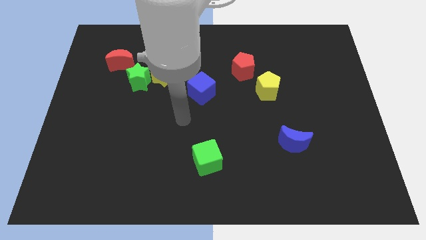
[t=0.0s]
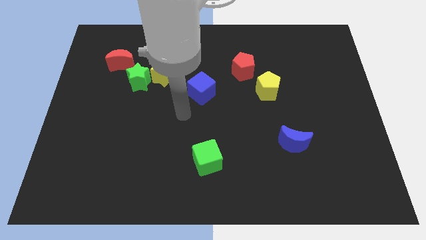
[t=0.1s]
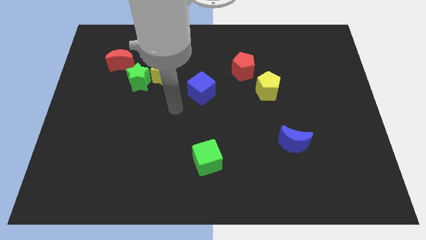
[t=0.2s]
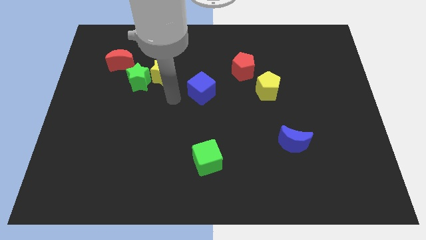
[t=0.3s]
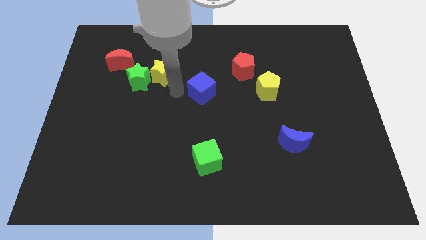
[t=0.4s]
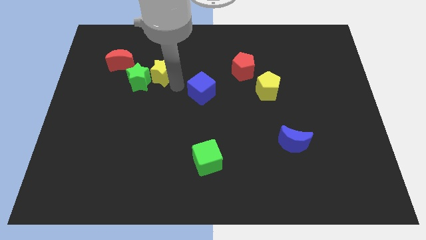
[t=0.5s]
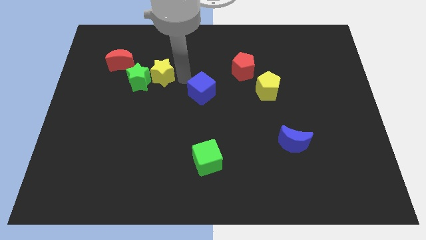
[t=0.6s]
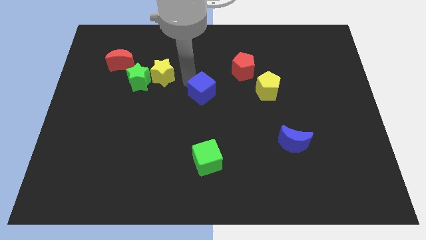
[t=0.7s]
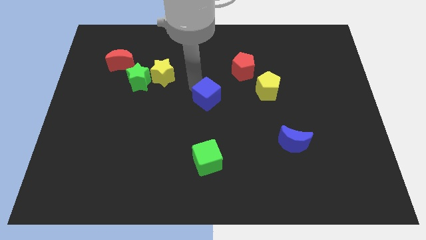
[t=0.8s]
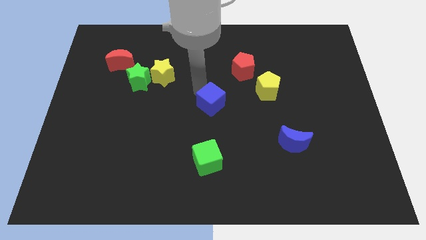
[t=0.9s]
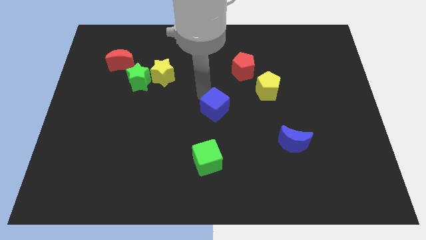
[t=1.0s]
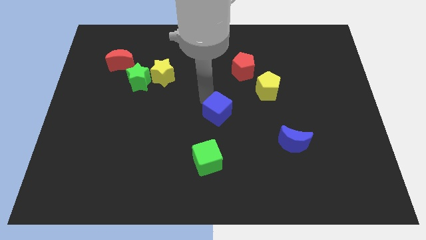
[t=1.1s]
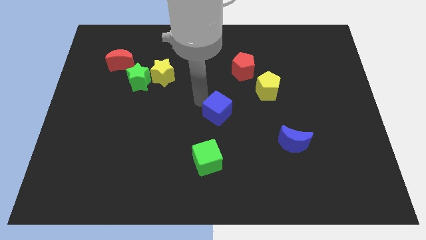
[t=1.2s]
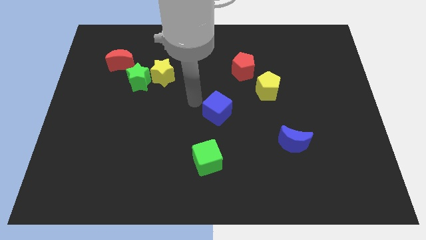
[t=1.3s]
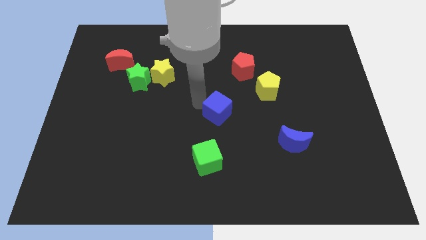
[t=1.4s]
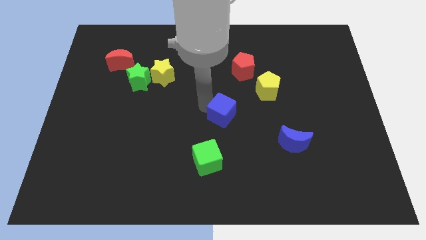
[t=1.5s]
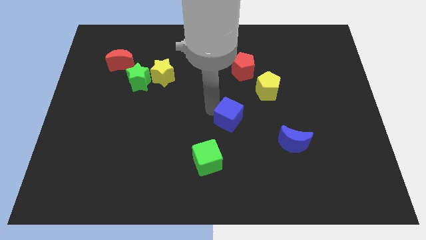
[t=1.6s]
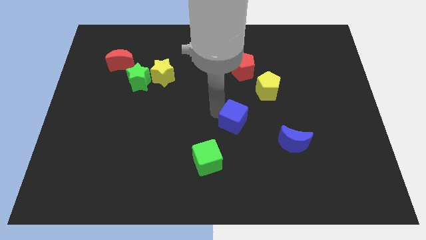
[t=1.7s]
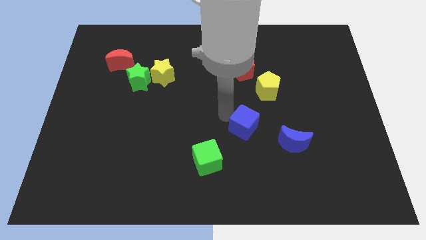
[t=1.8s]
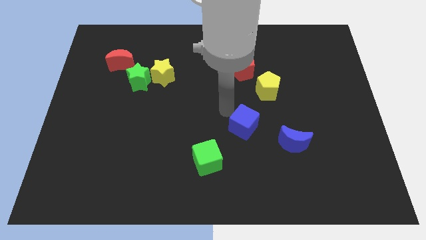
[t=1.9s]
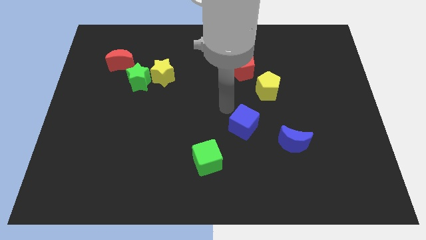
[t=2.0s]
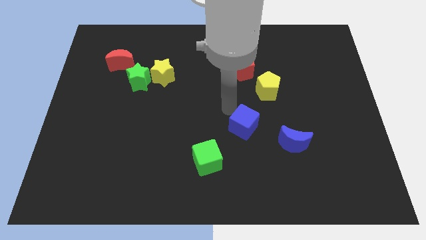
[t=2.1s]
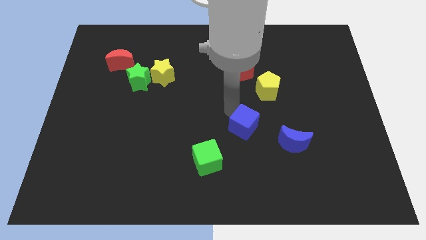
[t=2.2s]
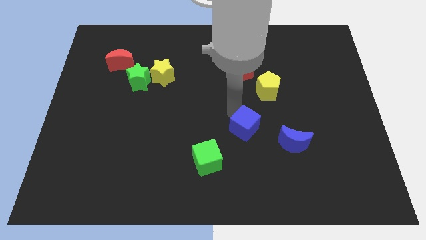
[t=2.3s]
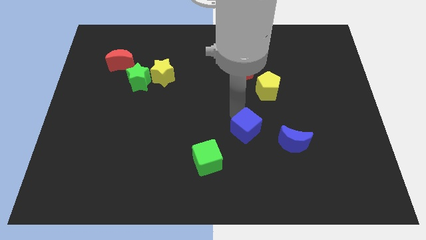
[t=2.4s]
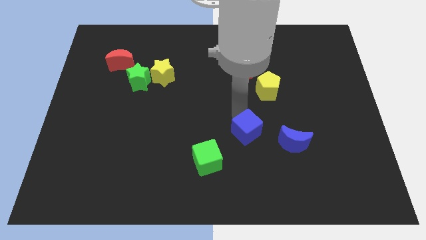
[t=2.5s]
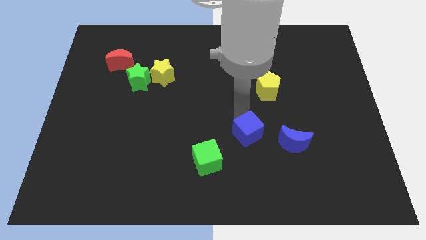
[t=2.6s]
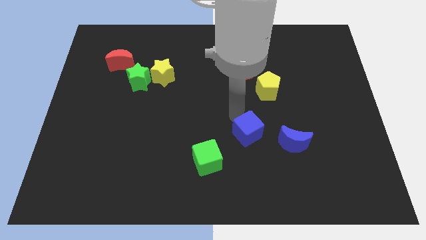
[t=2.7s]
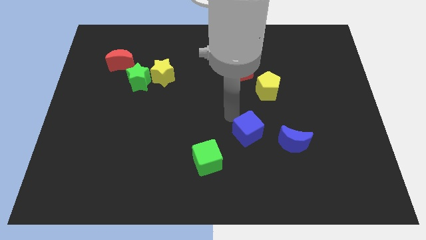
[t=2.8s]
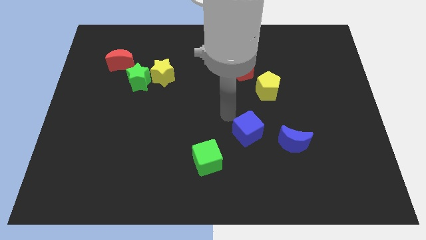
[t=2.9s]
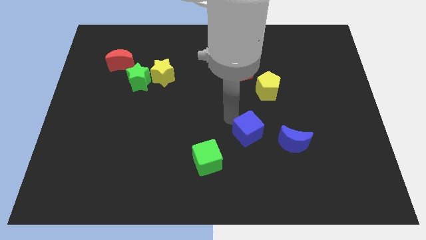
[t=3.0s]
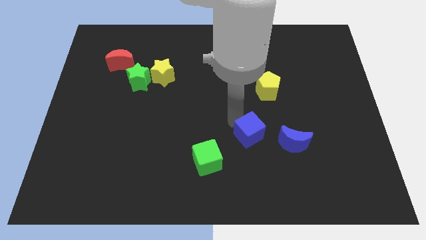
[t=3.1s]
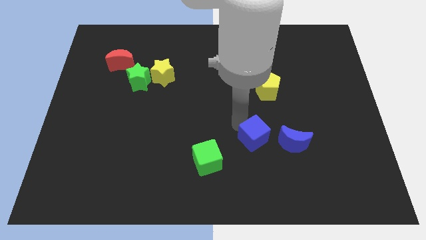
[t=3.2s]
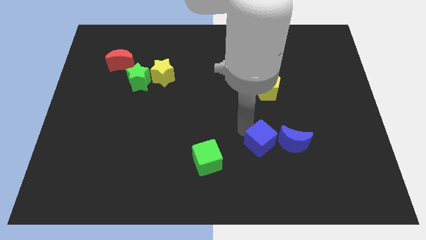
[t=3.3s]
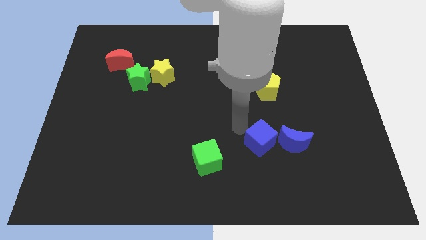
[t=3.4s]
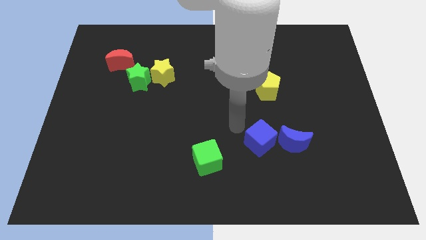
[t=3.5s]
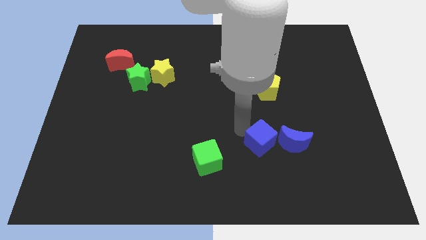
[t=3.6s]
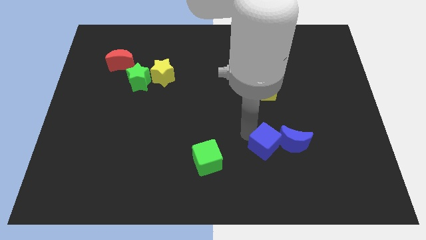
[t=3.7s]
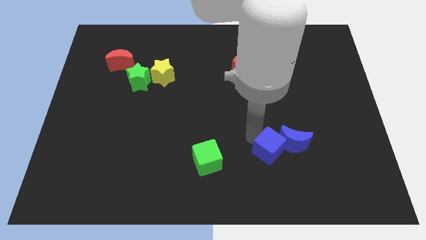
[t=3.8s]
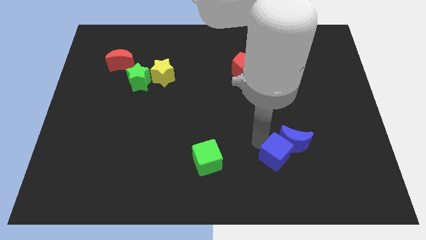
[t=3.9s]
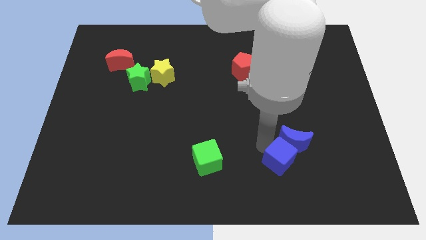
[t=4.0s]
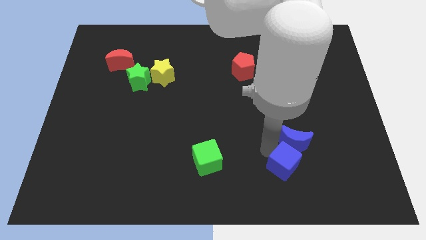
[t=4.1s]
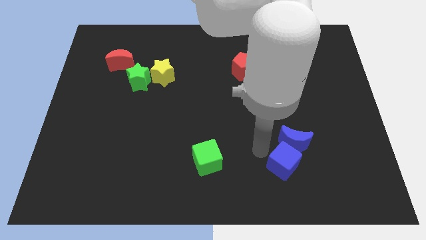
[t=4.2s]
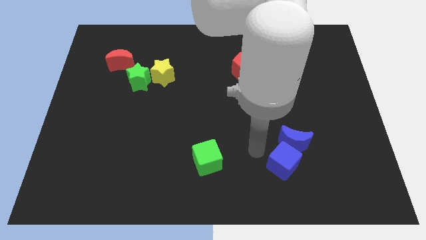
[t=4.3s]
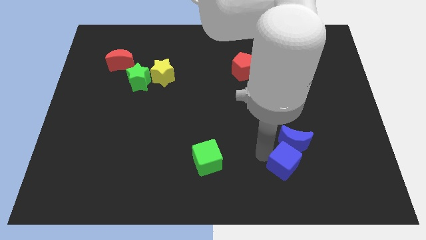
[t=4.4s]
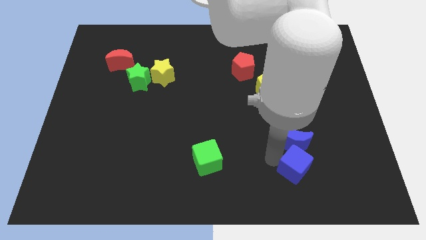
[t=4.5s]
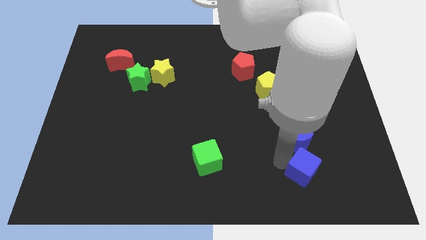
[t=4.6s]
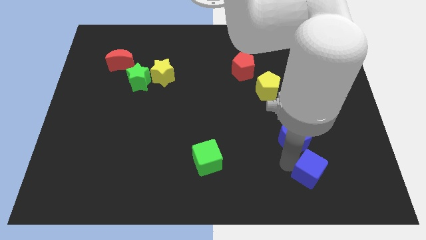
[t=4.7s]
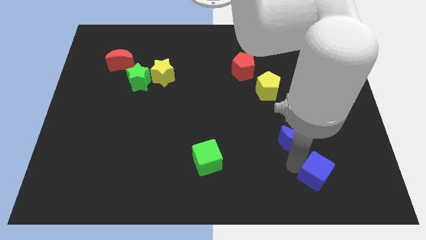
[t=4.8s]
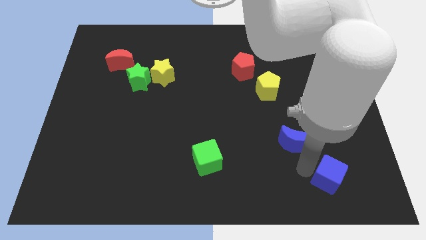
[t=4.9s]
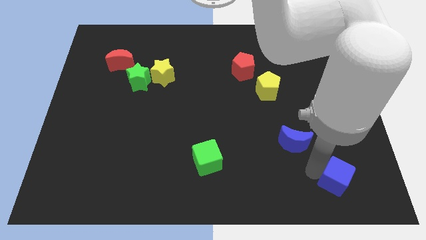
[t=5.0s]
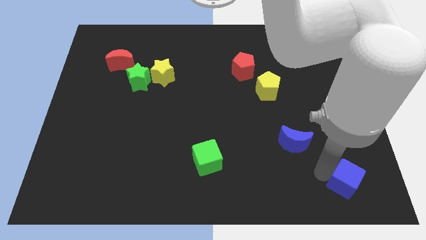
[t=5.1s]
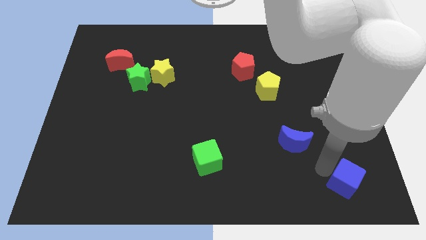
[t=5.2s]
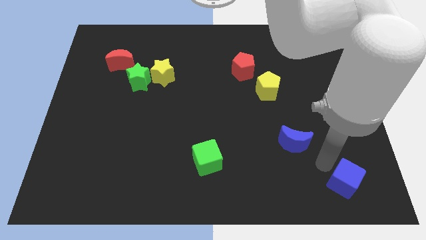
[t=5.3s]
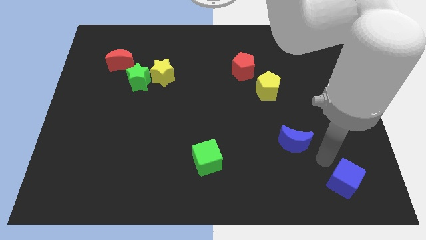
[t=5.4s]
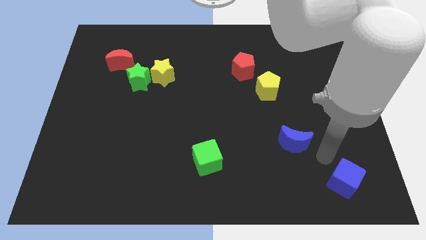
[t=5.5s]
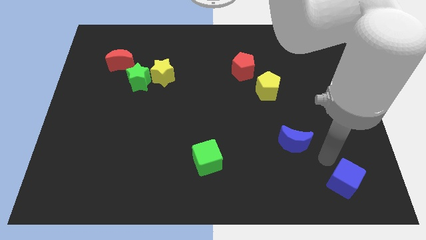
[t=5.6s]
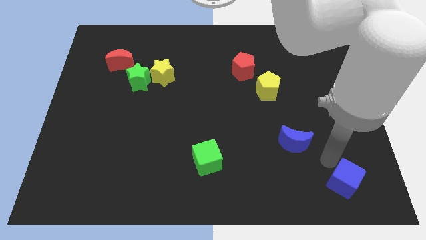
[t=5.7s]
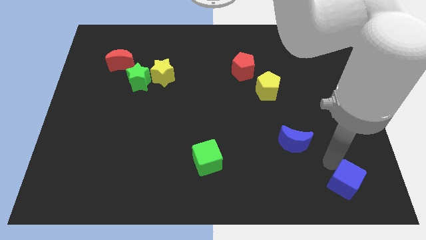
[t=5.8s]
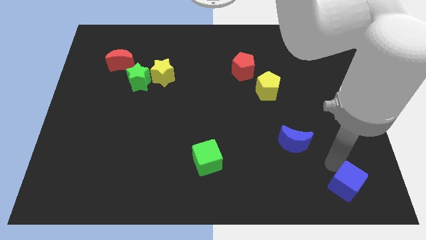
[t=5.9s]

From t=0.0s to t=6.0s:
move the blue cube to the lower right corner

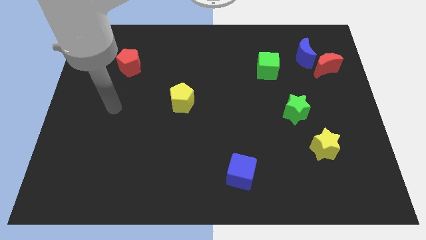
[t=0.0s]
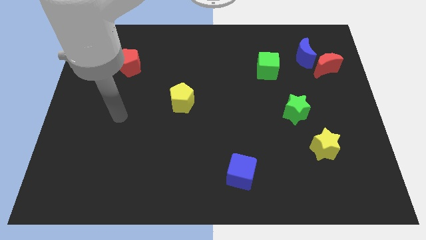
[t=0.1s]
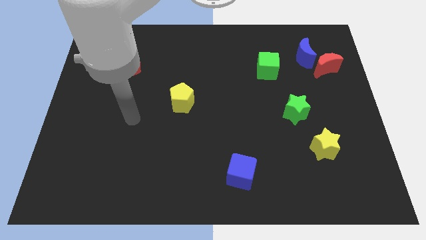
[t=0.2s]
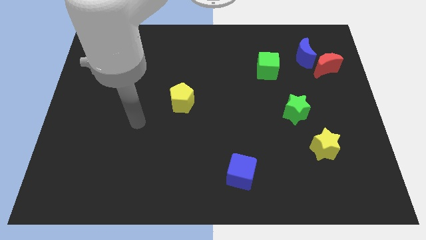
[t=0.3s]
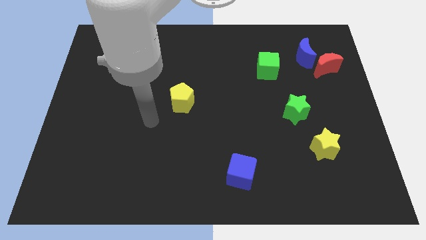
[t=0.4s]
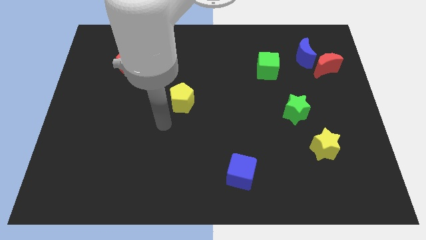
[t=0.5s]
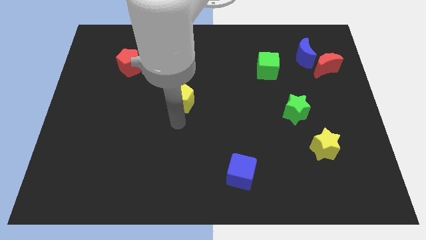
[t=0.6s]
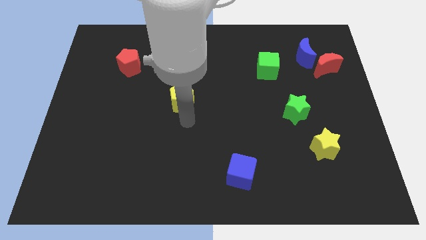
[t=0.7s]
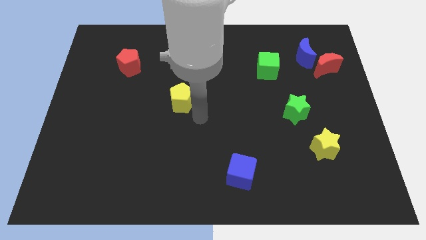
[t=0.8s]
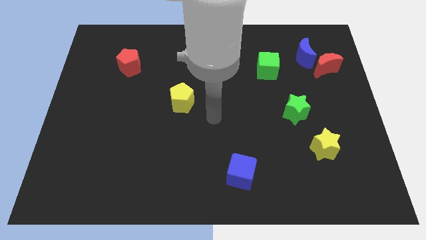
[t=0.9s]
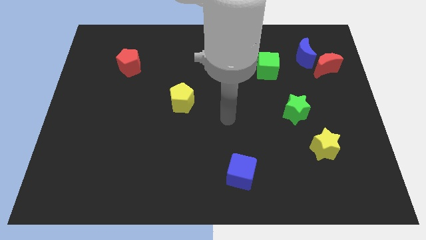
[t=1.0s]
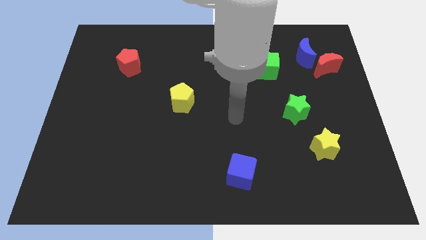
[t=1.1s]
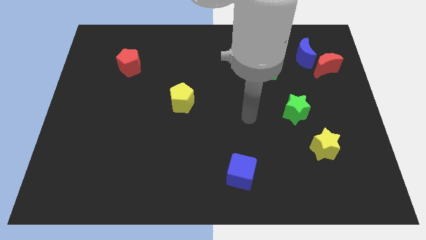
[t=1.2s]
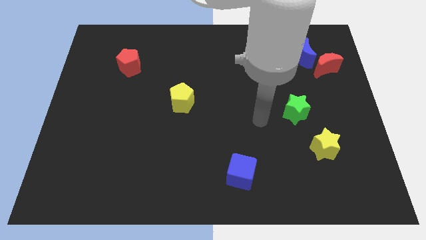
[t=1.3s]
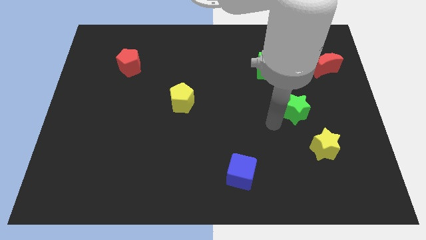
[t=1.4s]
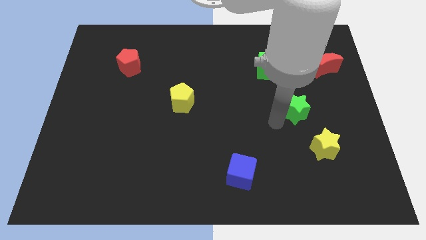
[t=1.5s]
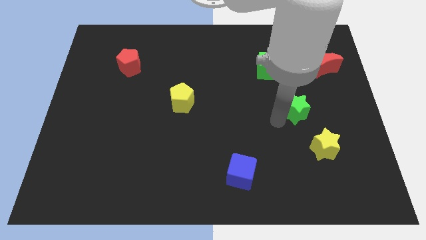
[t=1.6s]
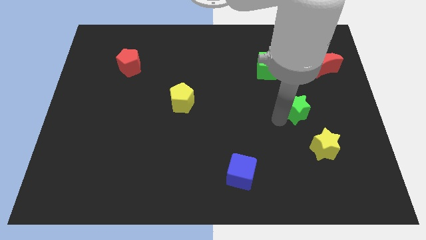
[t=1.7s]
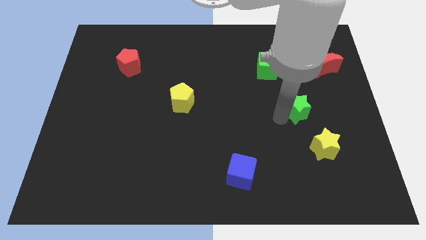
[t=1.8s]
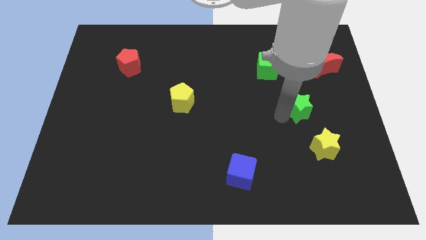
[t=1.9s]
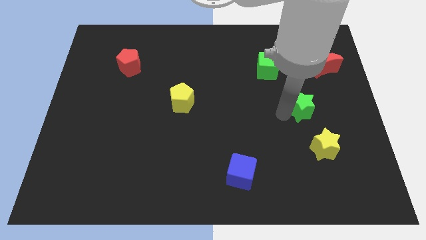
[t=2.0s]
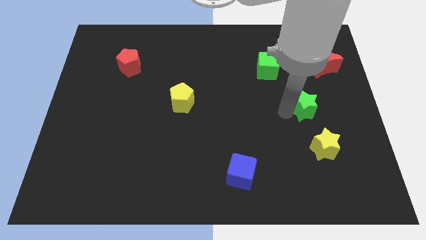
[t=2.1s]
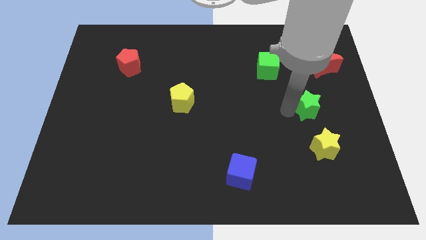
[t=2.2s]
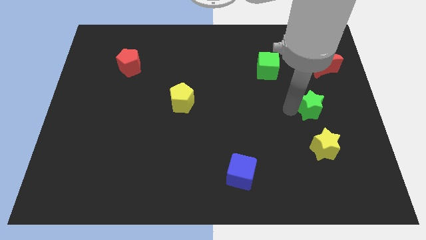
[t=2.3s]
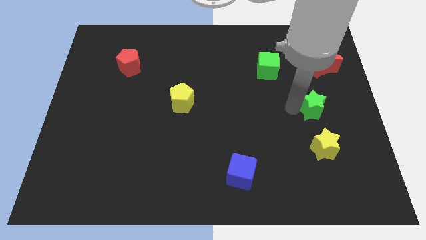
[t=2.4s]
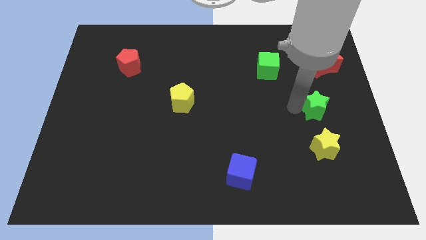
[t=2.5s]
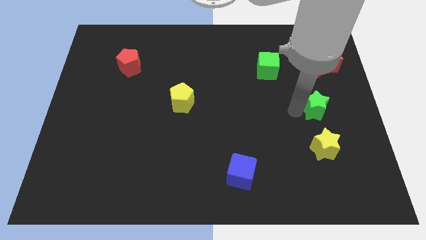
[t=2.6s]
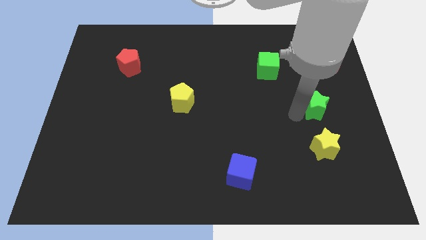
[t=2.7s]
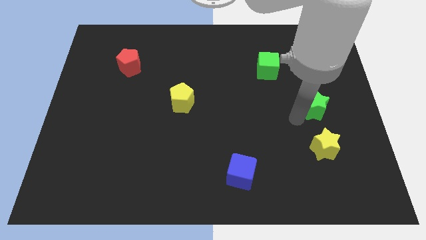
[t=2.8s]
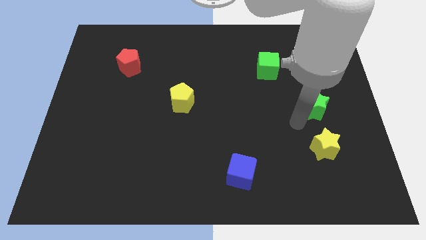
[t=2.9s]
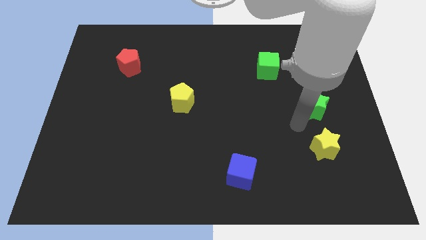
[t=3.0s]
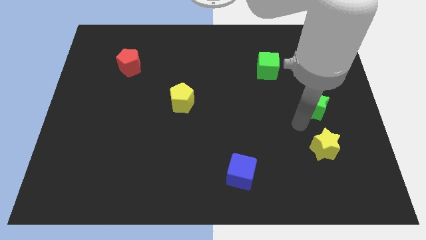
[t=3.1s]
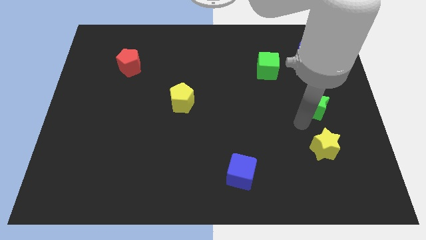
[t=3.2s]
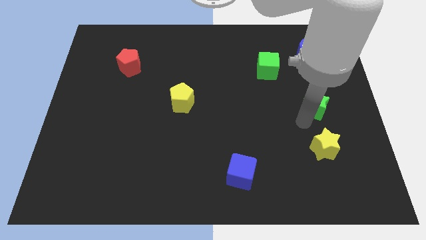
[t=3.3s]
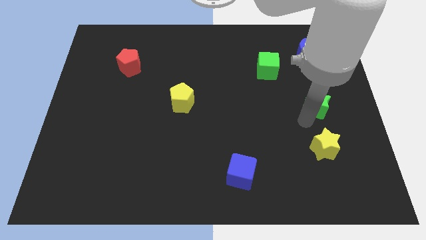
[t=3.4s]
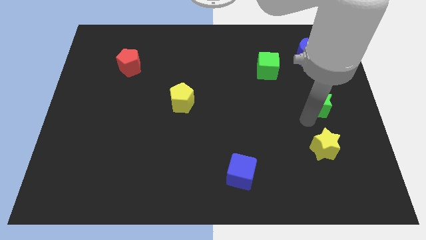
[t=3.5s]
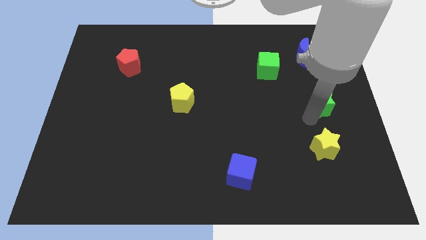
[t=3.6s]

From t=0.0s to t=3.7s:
slide the green star to the center right
